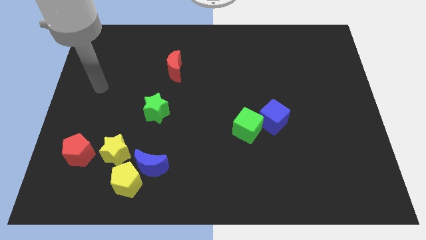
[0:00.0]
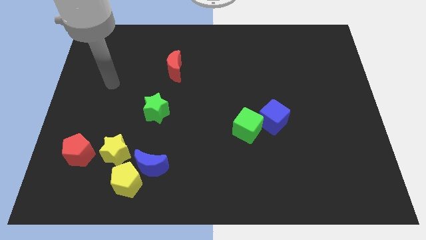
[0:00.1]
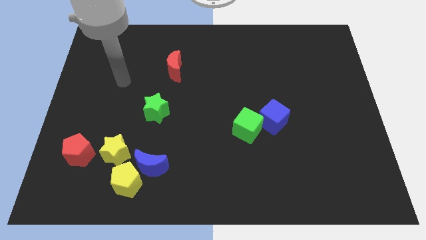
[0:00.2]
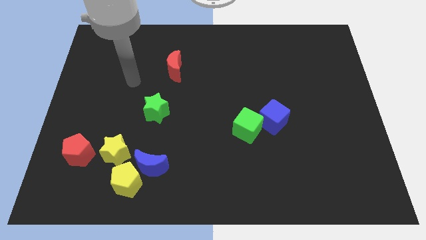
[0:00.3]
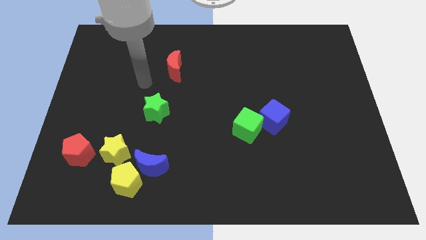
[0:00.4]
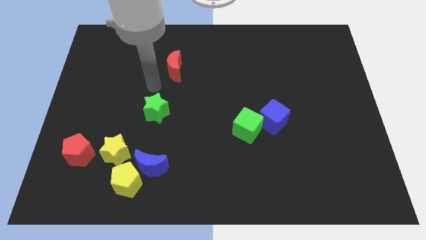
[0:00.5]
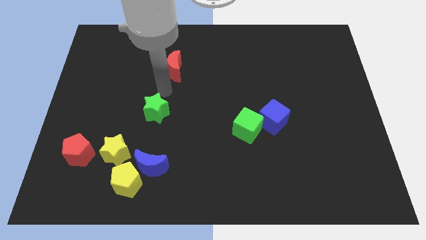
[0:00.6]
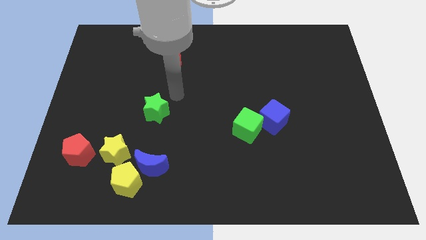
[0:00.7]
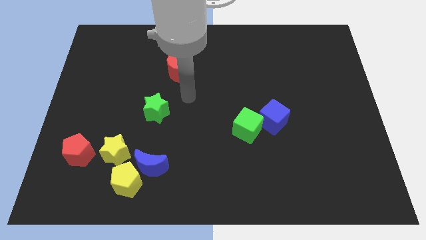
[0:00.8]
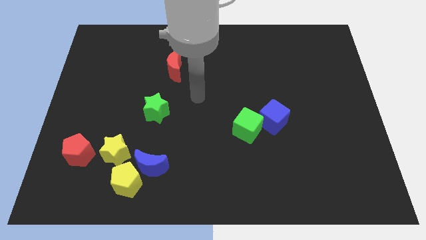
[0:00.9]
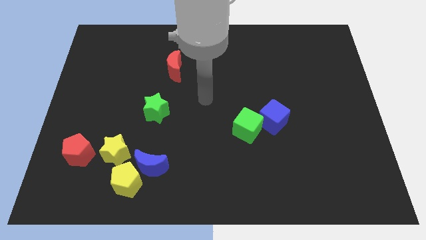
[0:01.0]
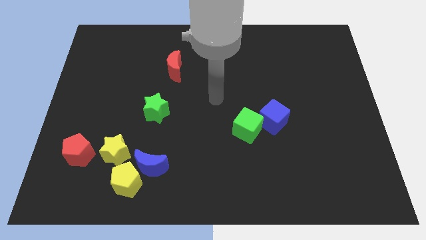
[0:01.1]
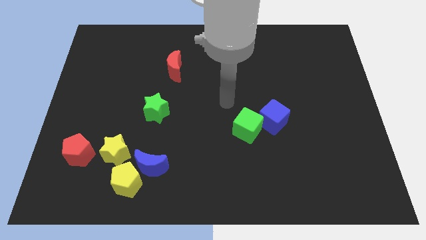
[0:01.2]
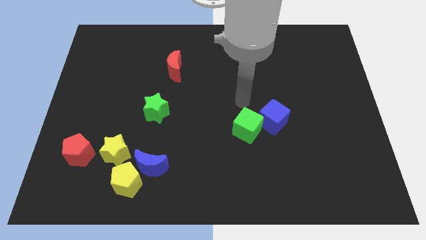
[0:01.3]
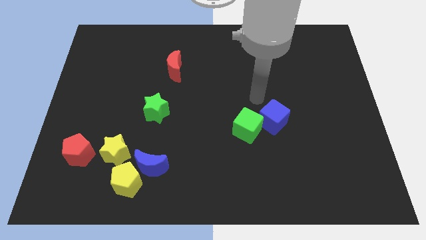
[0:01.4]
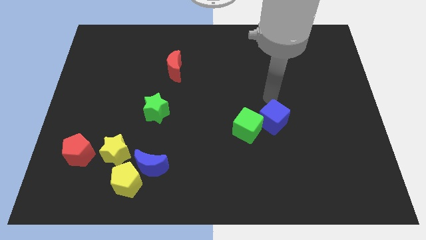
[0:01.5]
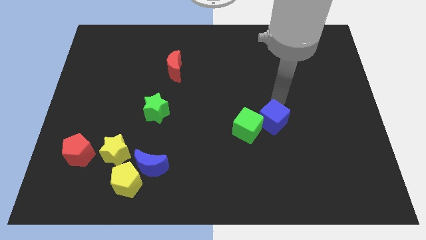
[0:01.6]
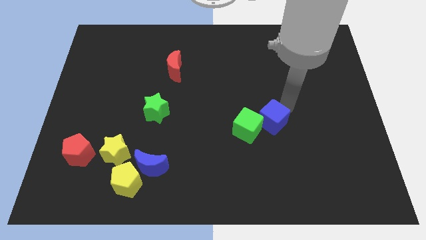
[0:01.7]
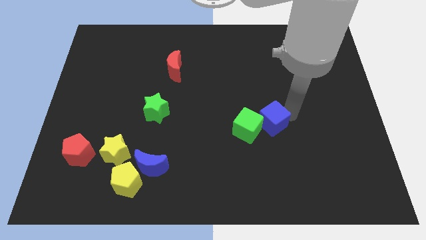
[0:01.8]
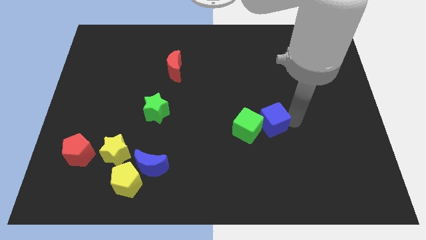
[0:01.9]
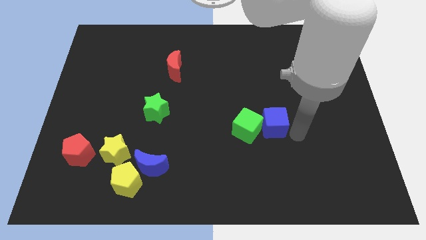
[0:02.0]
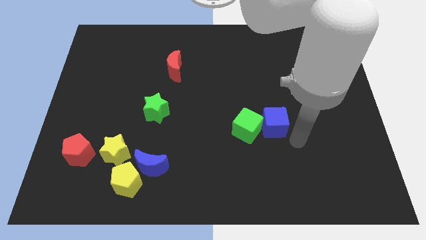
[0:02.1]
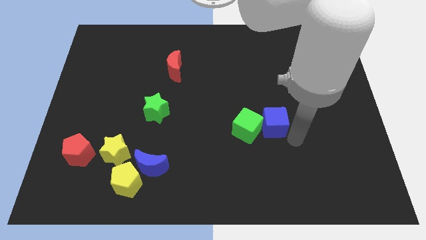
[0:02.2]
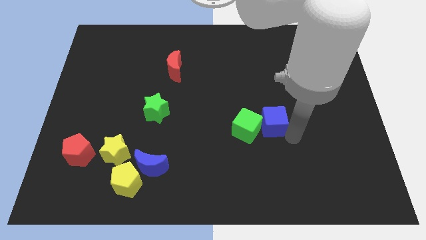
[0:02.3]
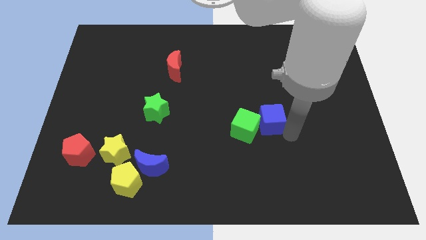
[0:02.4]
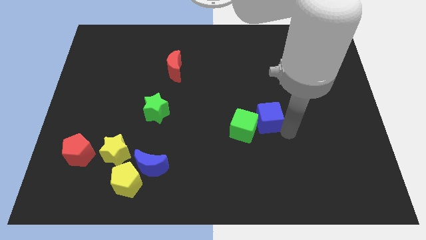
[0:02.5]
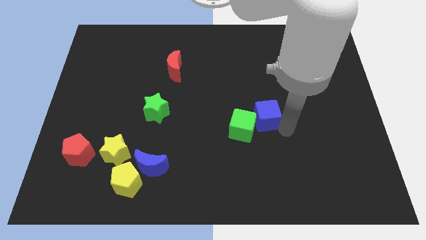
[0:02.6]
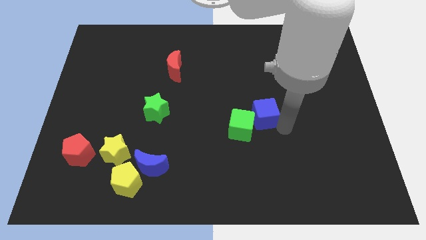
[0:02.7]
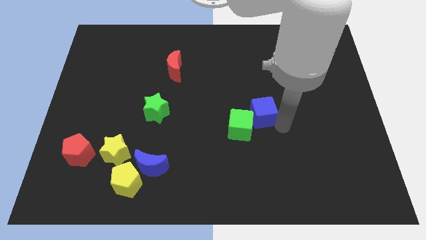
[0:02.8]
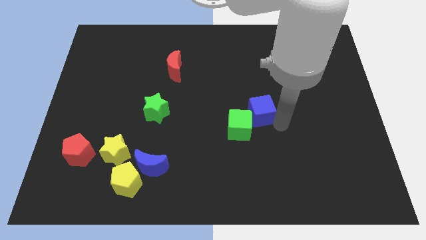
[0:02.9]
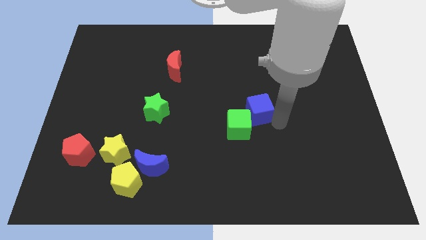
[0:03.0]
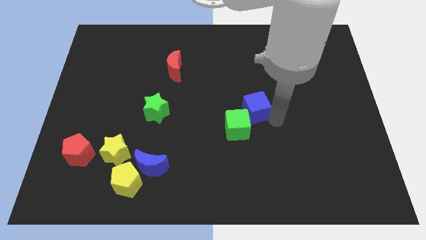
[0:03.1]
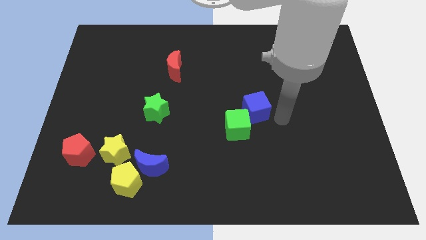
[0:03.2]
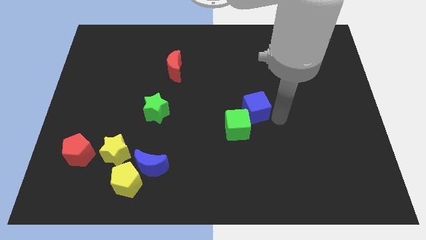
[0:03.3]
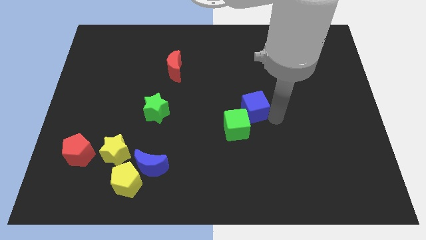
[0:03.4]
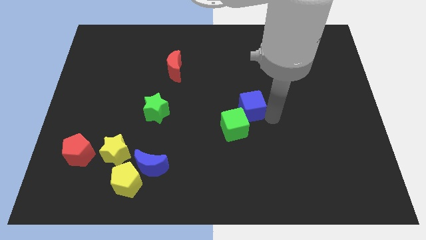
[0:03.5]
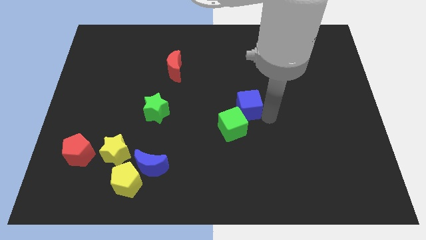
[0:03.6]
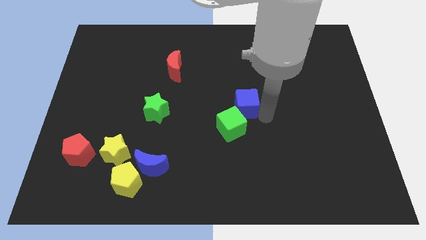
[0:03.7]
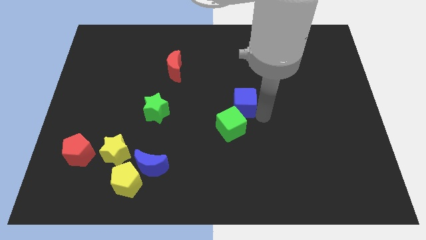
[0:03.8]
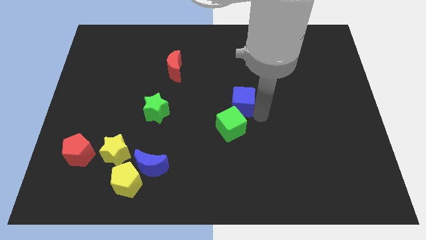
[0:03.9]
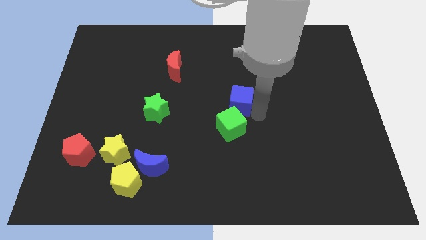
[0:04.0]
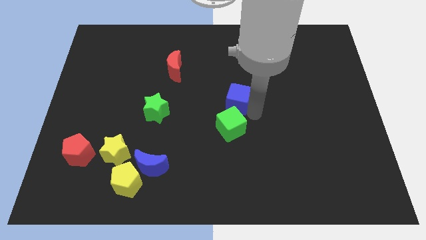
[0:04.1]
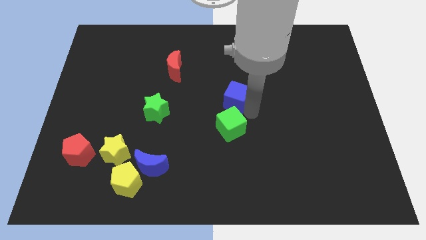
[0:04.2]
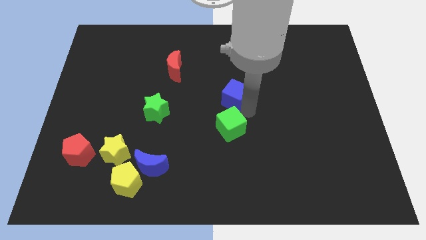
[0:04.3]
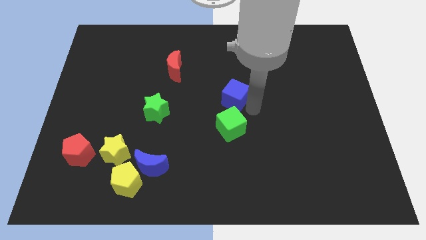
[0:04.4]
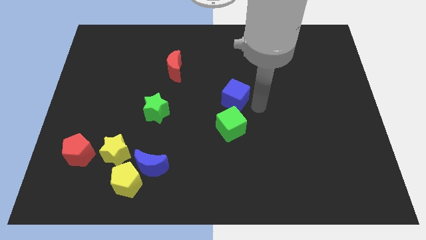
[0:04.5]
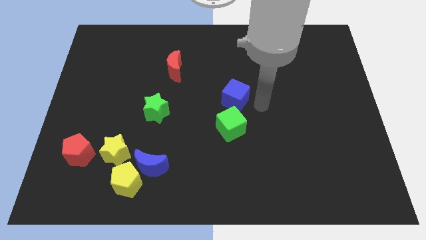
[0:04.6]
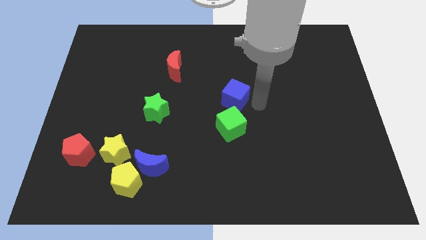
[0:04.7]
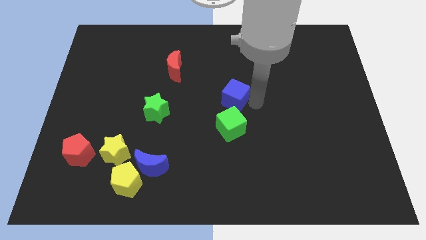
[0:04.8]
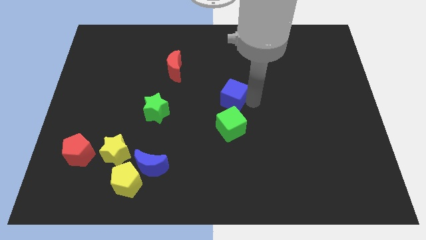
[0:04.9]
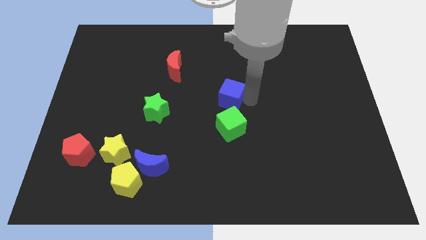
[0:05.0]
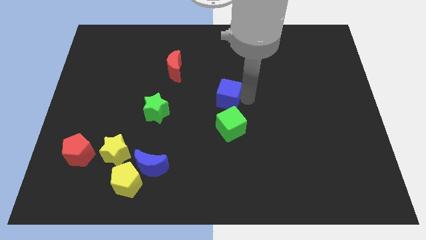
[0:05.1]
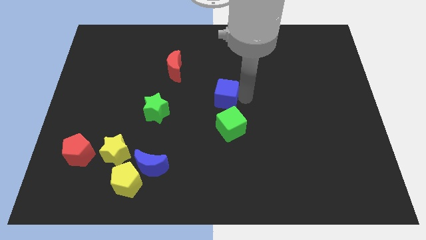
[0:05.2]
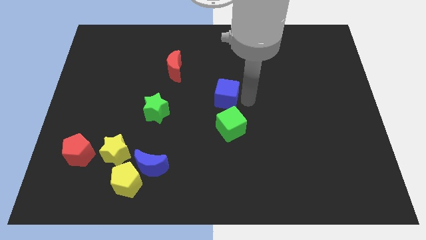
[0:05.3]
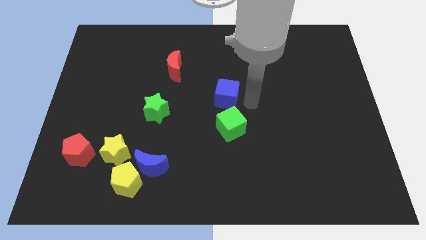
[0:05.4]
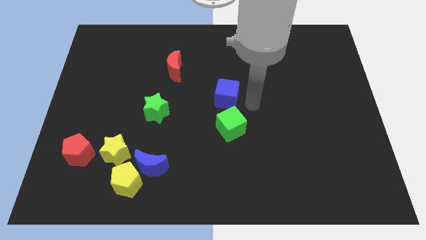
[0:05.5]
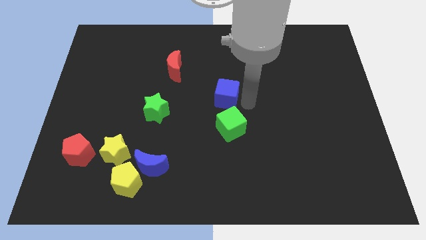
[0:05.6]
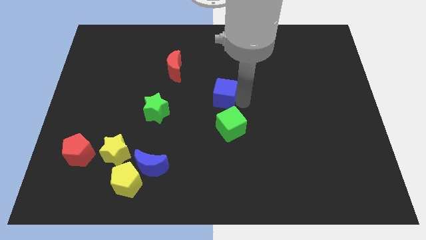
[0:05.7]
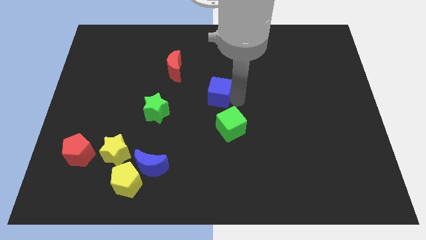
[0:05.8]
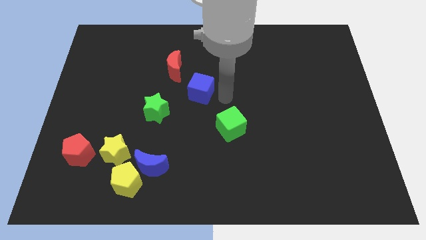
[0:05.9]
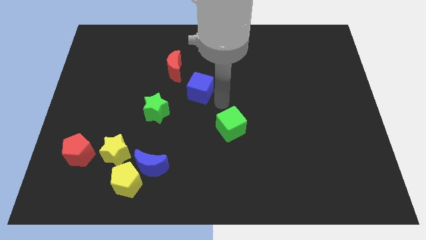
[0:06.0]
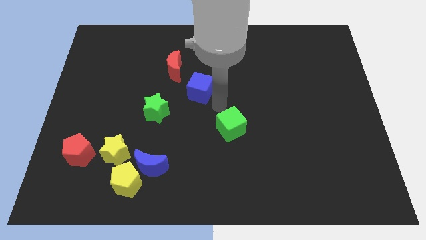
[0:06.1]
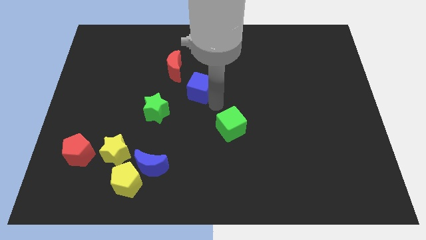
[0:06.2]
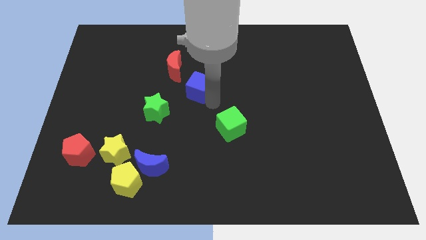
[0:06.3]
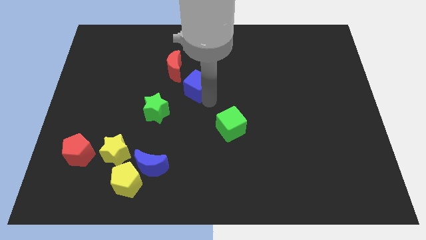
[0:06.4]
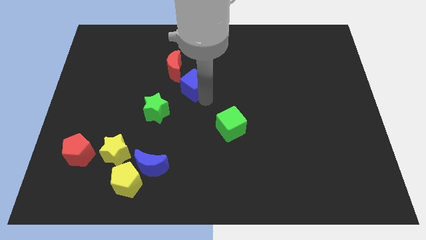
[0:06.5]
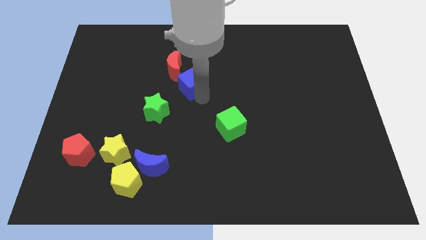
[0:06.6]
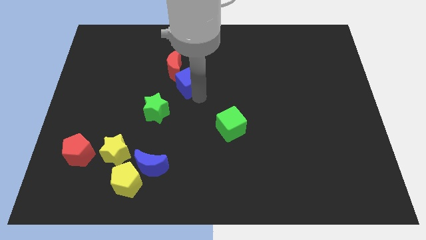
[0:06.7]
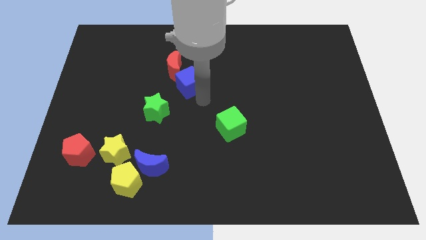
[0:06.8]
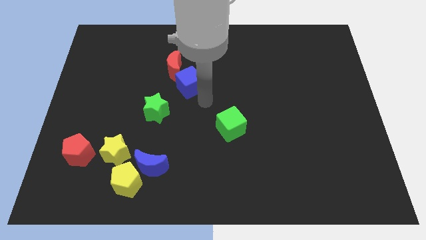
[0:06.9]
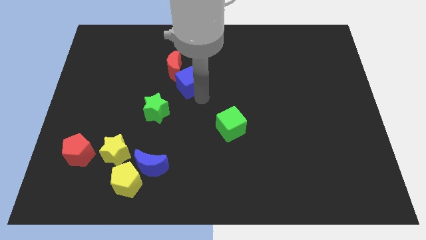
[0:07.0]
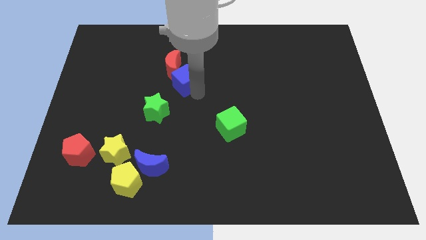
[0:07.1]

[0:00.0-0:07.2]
push the blue cube towards the red moon
